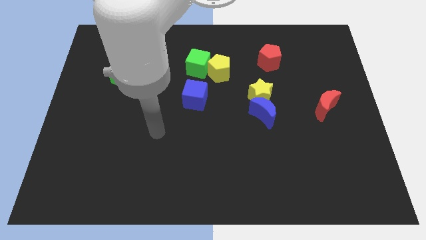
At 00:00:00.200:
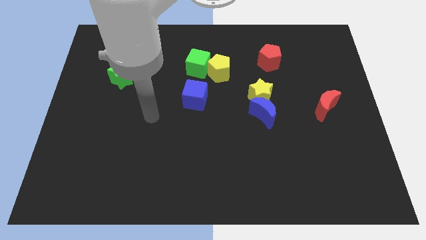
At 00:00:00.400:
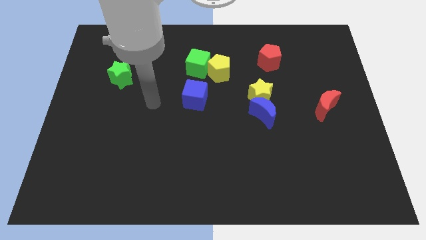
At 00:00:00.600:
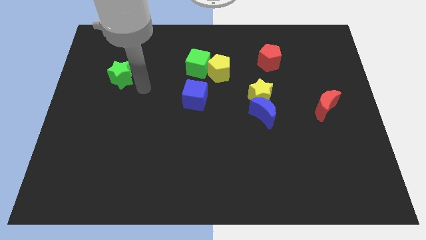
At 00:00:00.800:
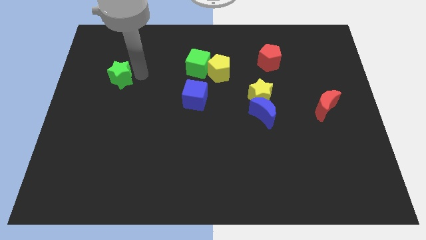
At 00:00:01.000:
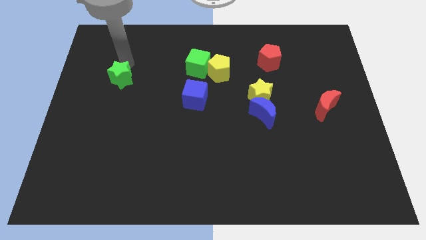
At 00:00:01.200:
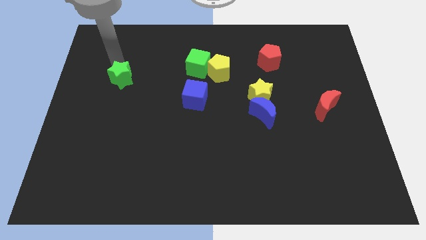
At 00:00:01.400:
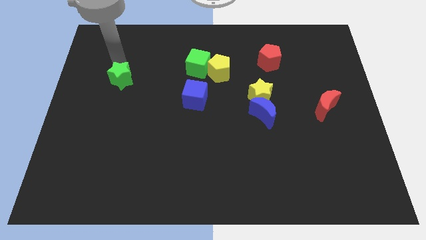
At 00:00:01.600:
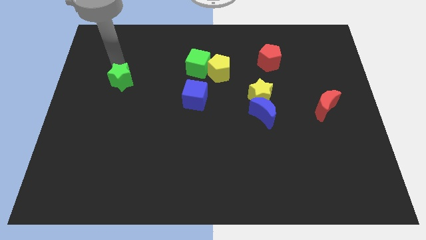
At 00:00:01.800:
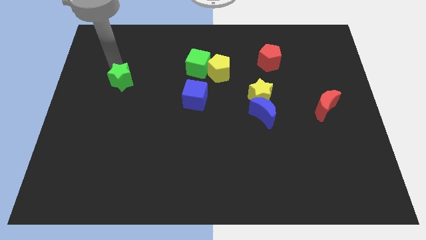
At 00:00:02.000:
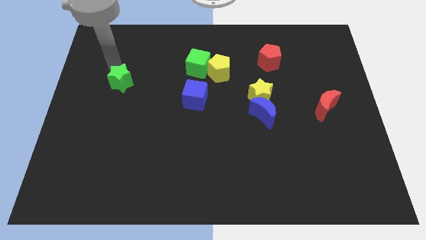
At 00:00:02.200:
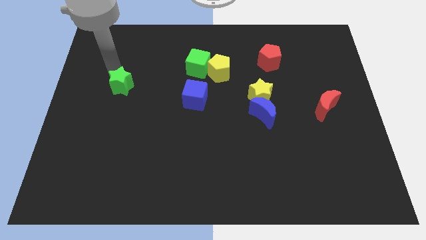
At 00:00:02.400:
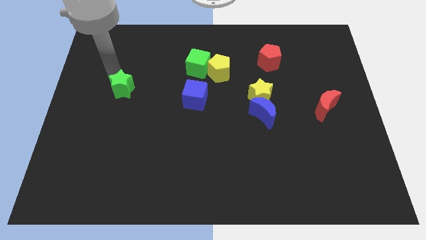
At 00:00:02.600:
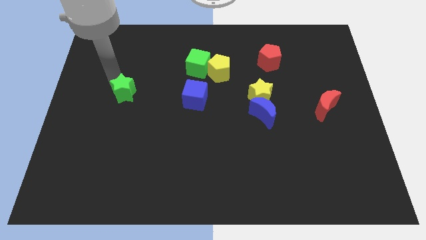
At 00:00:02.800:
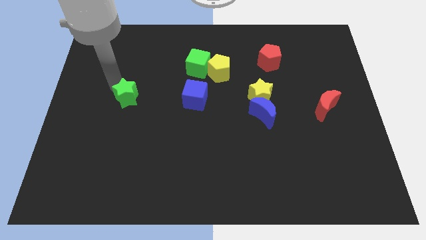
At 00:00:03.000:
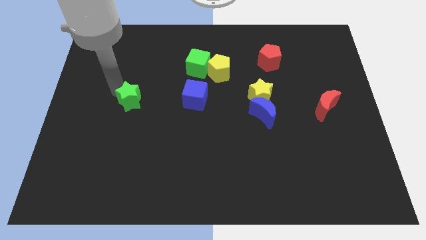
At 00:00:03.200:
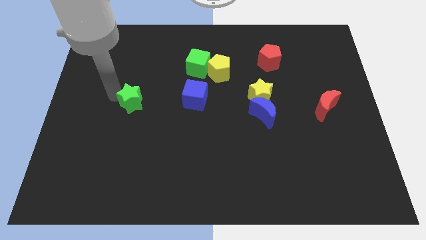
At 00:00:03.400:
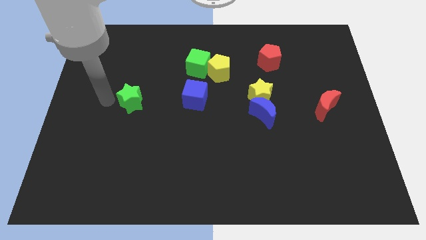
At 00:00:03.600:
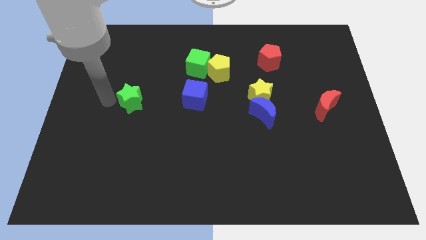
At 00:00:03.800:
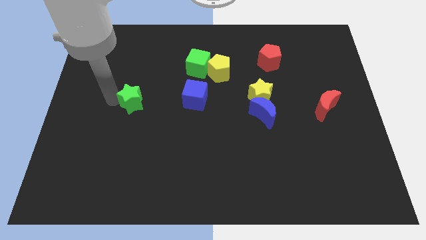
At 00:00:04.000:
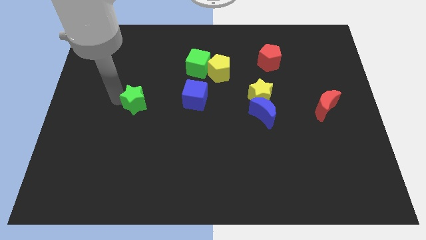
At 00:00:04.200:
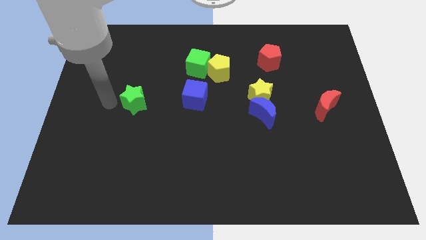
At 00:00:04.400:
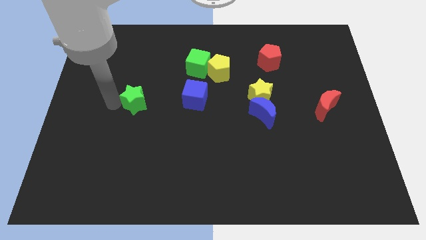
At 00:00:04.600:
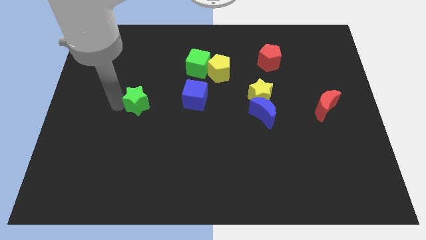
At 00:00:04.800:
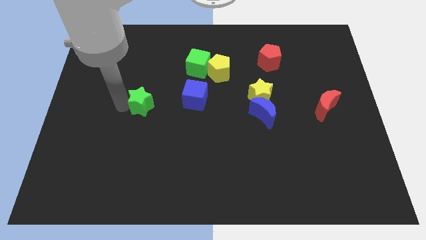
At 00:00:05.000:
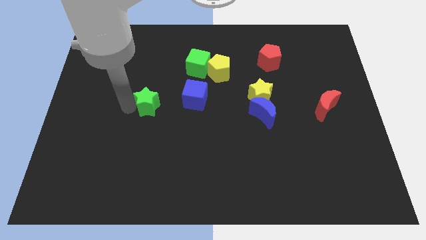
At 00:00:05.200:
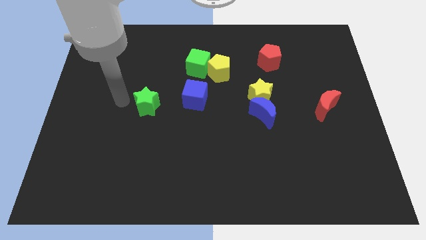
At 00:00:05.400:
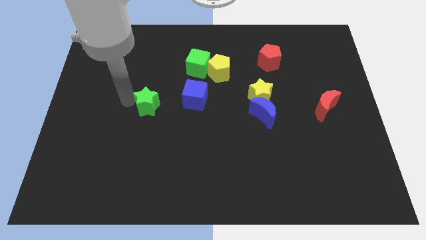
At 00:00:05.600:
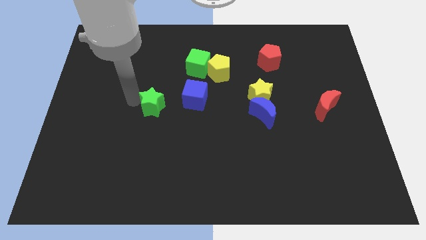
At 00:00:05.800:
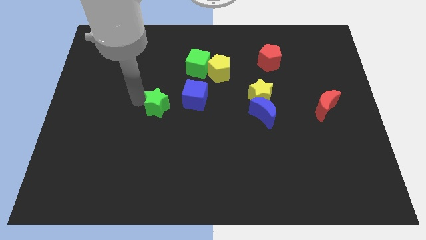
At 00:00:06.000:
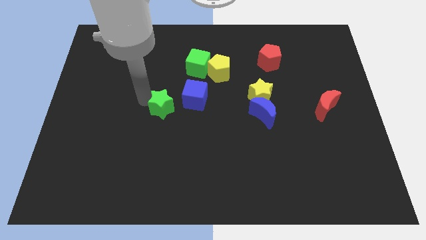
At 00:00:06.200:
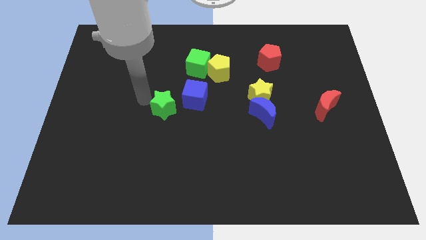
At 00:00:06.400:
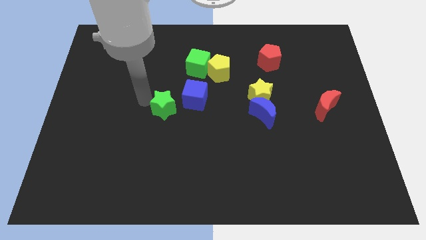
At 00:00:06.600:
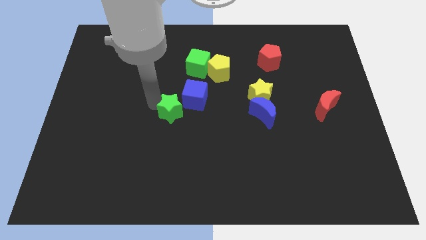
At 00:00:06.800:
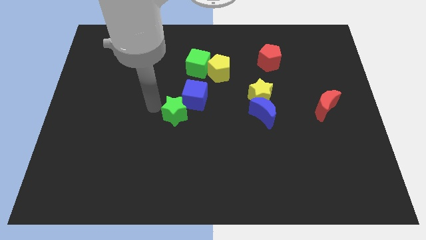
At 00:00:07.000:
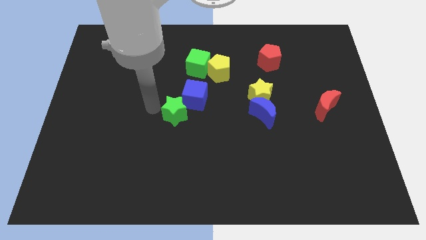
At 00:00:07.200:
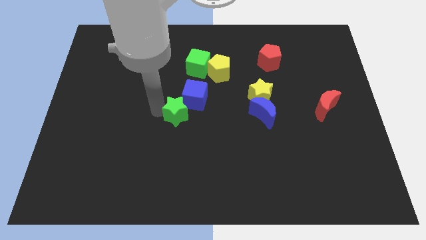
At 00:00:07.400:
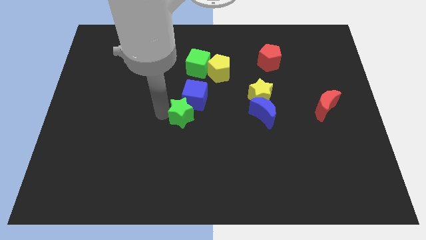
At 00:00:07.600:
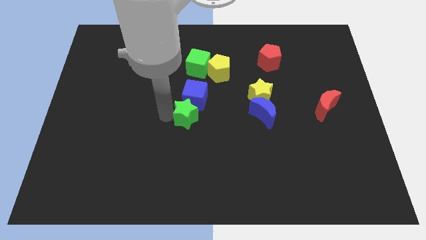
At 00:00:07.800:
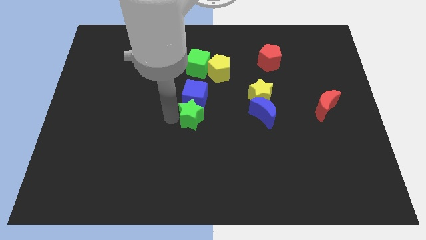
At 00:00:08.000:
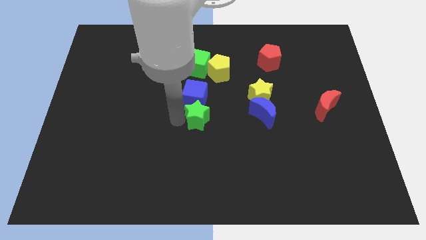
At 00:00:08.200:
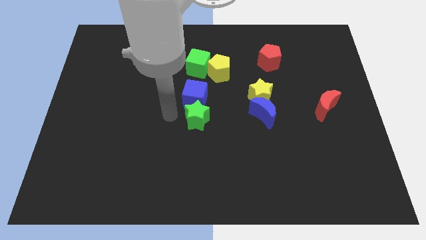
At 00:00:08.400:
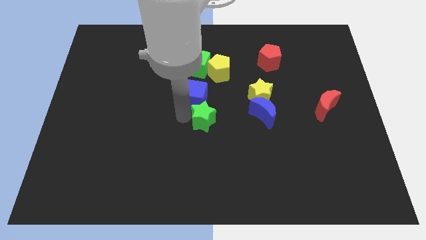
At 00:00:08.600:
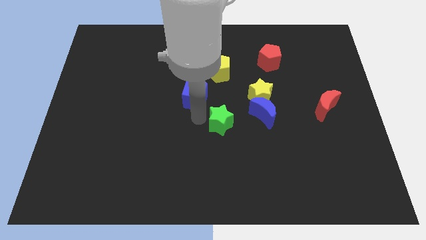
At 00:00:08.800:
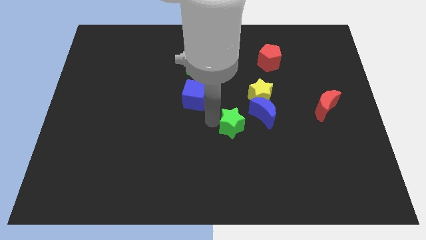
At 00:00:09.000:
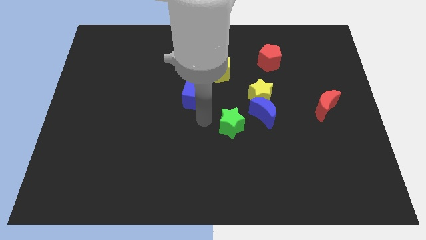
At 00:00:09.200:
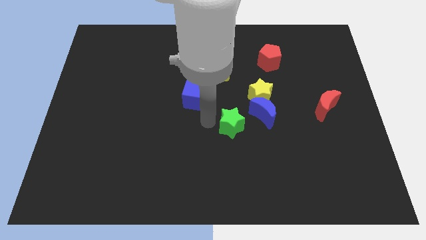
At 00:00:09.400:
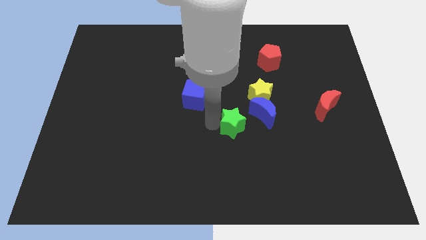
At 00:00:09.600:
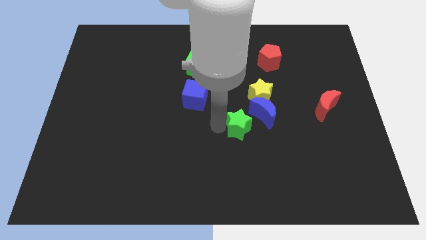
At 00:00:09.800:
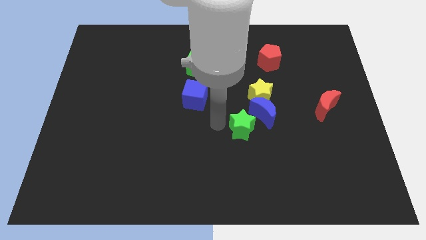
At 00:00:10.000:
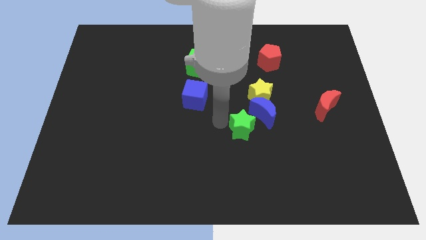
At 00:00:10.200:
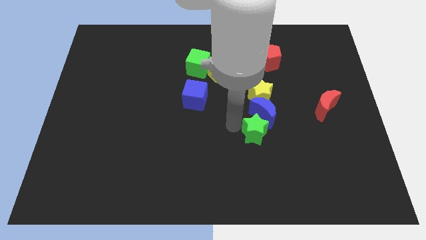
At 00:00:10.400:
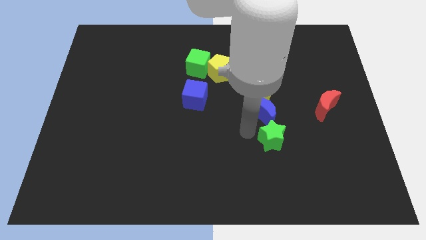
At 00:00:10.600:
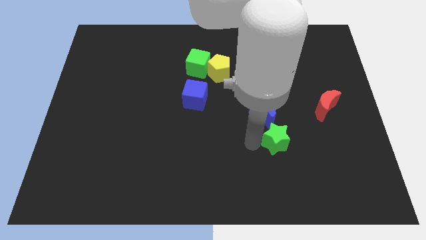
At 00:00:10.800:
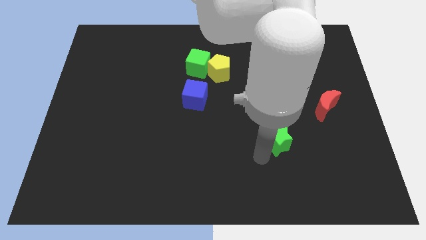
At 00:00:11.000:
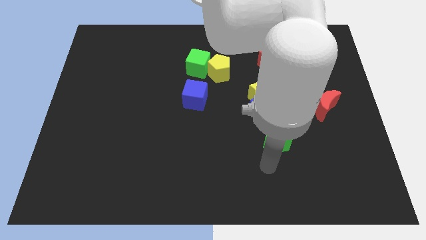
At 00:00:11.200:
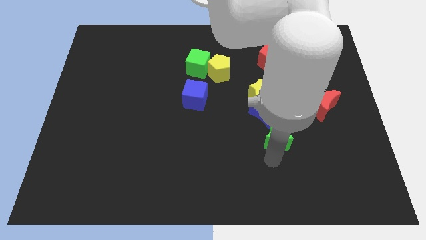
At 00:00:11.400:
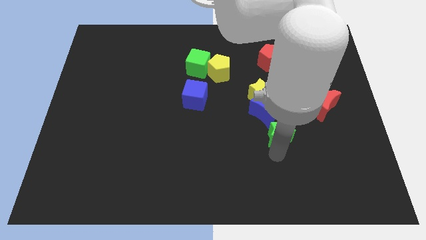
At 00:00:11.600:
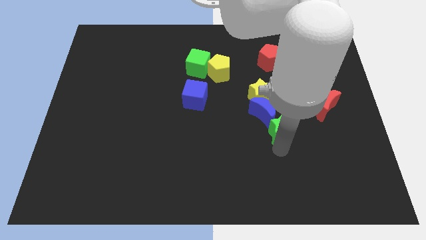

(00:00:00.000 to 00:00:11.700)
slide the green star to the bottom right side of the yellow star
